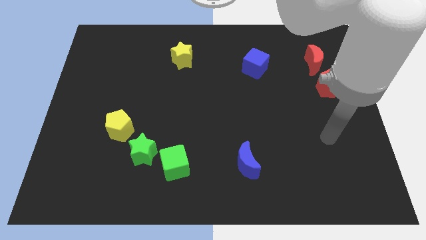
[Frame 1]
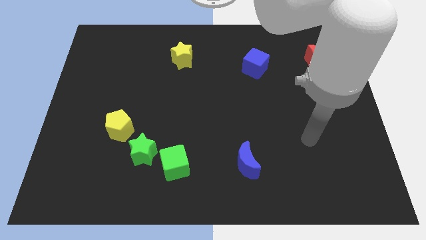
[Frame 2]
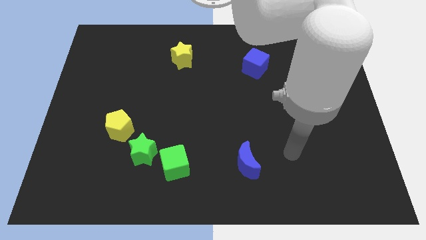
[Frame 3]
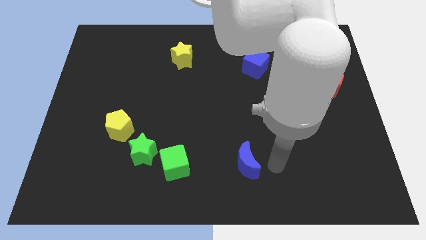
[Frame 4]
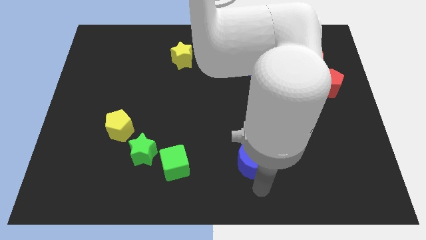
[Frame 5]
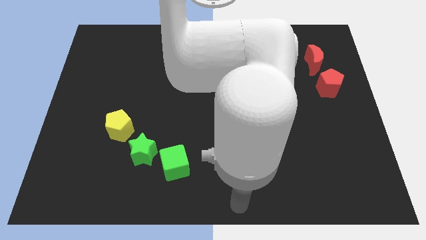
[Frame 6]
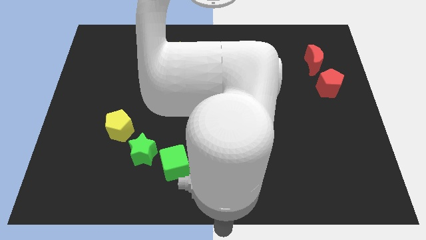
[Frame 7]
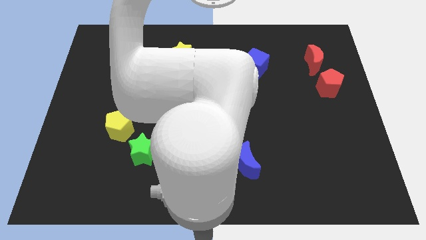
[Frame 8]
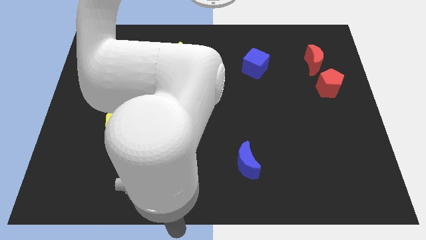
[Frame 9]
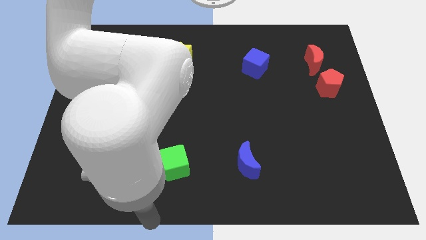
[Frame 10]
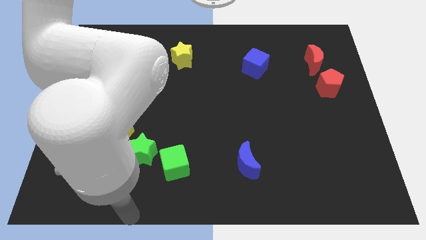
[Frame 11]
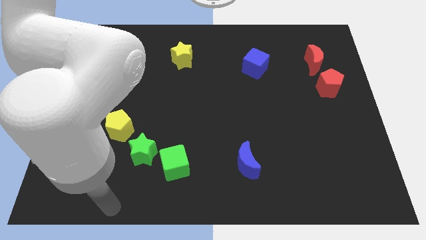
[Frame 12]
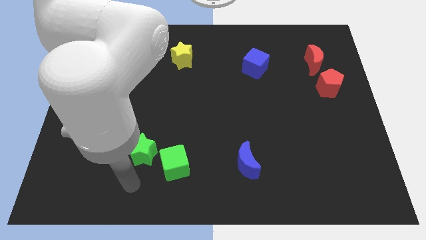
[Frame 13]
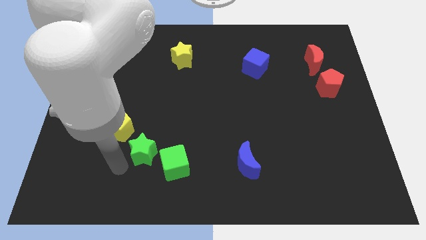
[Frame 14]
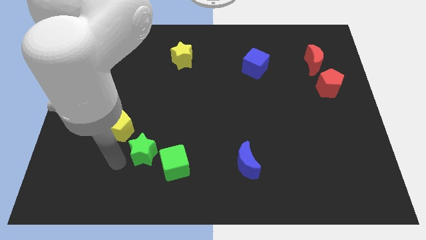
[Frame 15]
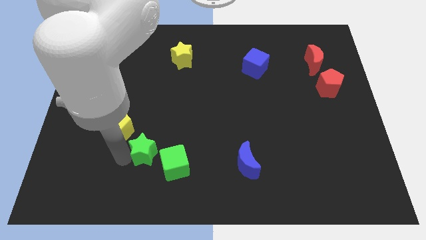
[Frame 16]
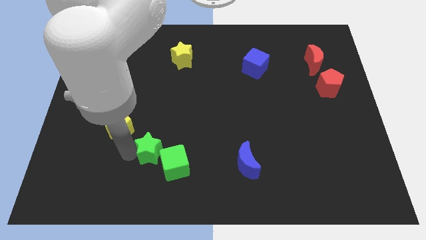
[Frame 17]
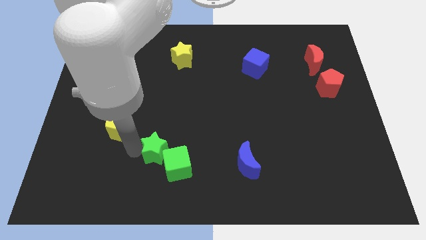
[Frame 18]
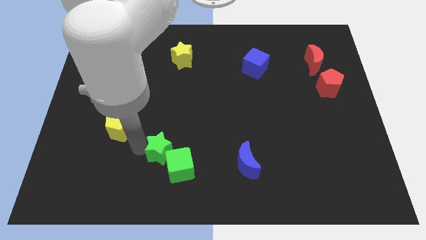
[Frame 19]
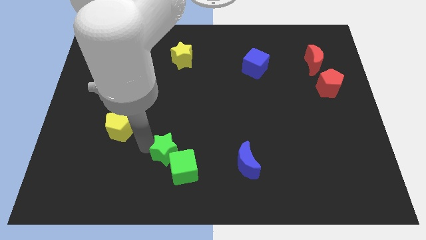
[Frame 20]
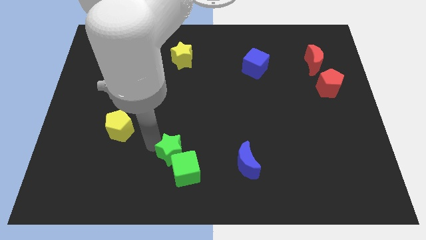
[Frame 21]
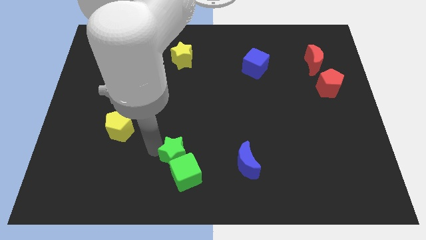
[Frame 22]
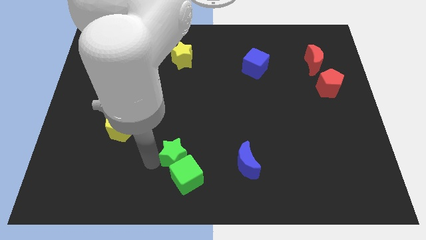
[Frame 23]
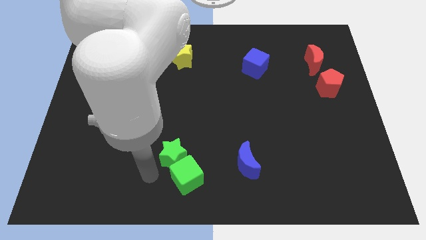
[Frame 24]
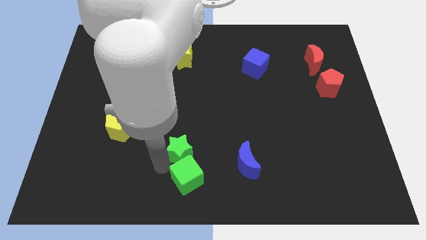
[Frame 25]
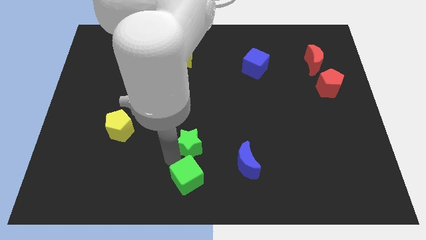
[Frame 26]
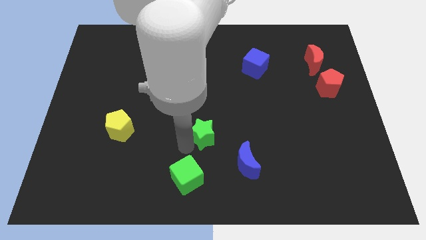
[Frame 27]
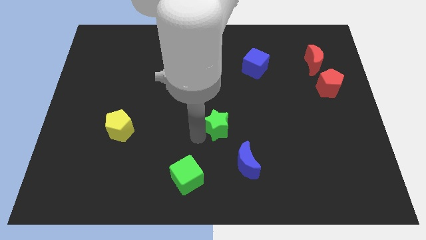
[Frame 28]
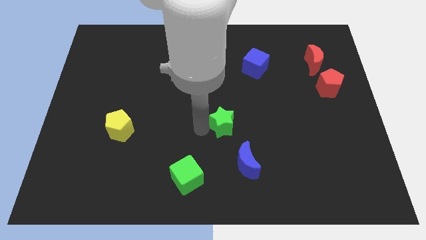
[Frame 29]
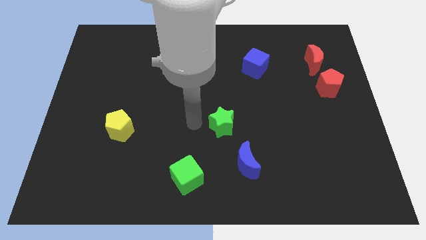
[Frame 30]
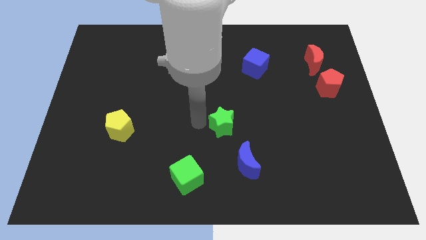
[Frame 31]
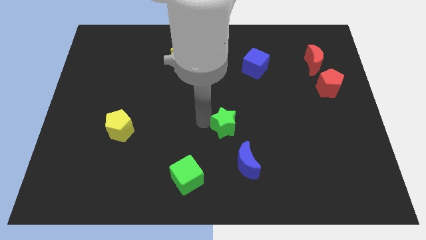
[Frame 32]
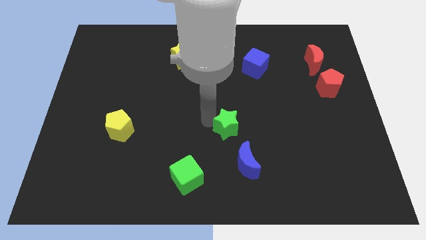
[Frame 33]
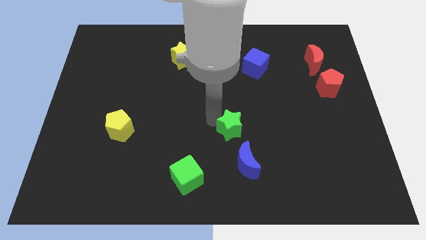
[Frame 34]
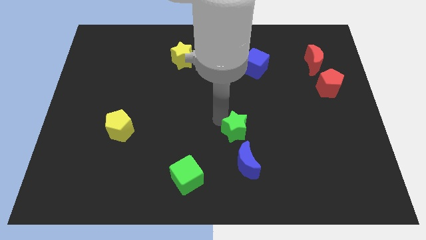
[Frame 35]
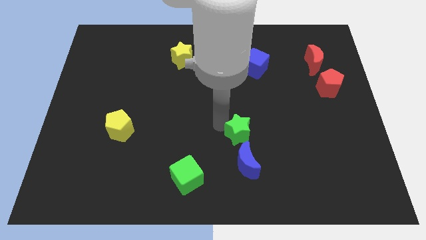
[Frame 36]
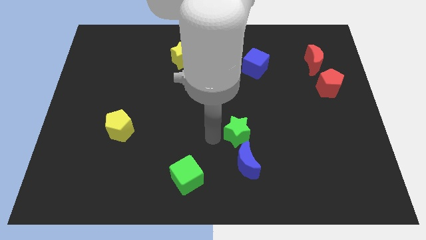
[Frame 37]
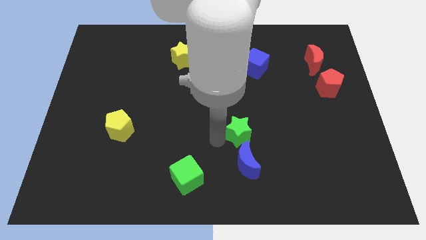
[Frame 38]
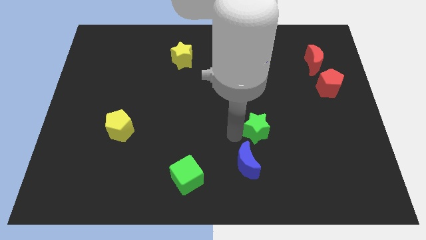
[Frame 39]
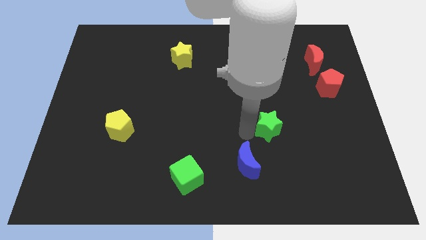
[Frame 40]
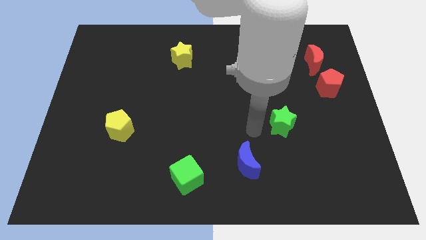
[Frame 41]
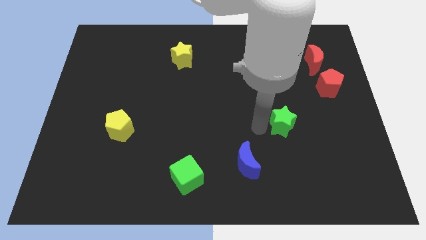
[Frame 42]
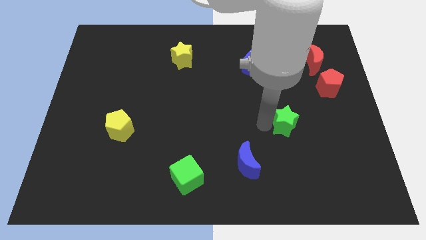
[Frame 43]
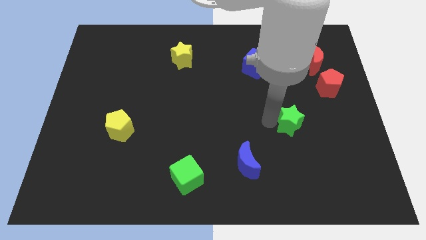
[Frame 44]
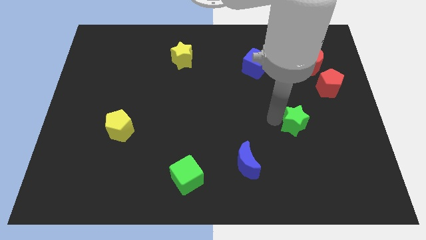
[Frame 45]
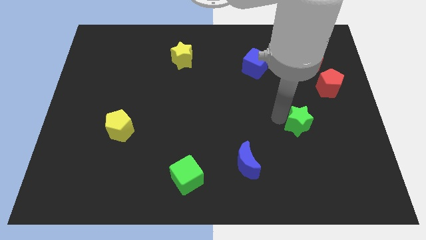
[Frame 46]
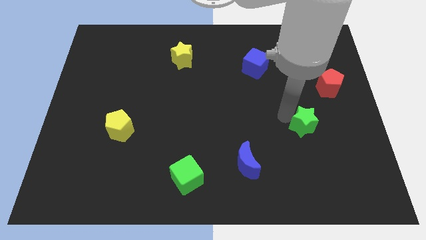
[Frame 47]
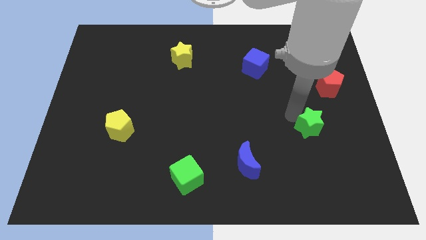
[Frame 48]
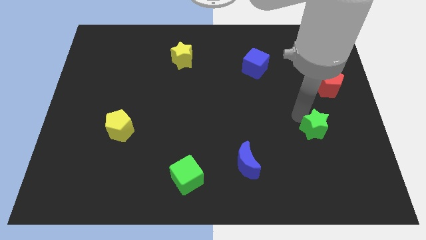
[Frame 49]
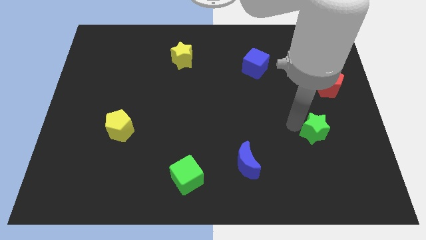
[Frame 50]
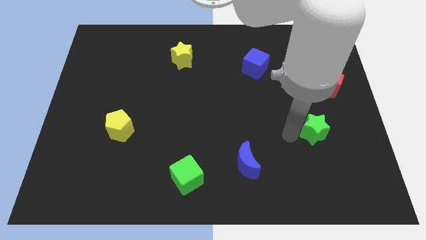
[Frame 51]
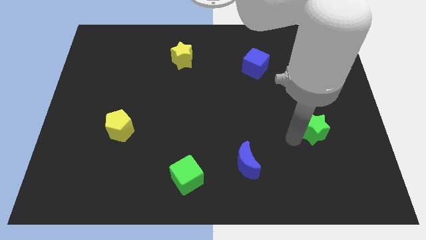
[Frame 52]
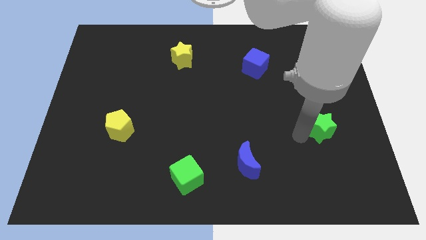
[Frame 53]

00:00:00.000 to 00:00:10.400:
push the green star below the red pentagon

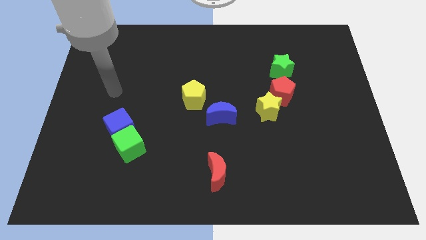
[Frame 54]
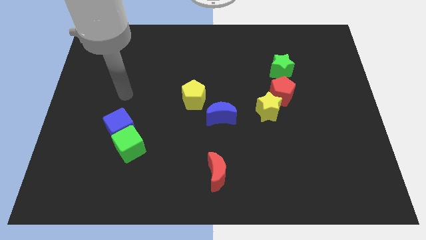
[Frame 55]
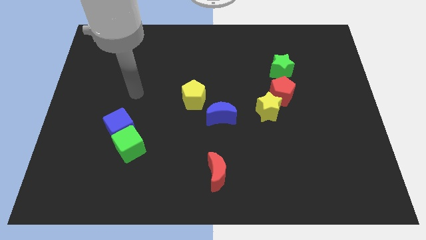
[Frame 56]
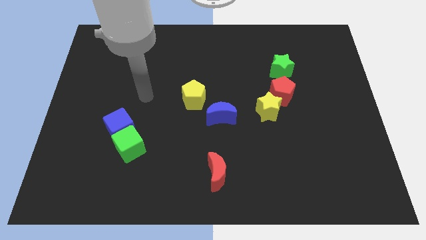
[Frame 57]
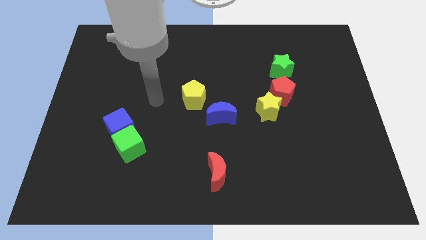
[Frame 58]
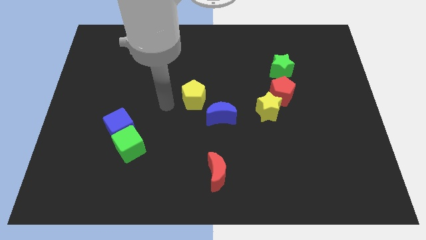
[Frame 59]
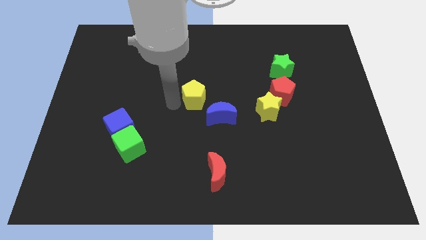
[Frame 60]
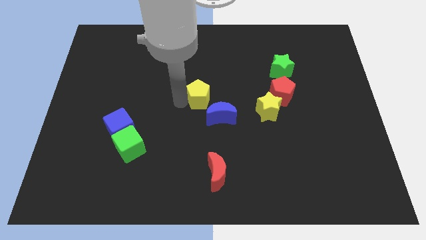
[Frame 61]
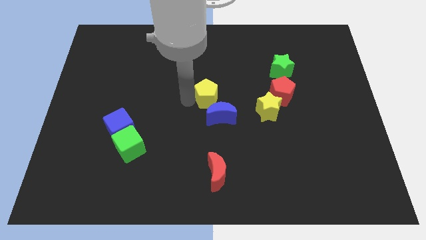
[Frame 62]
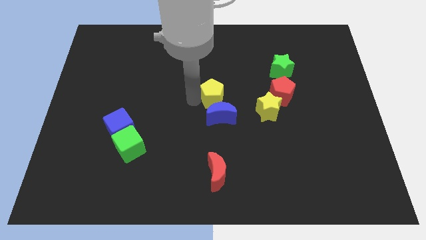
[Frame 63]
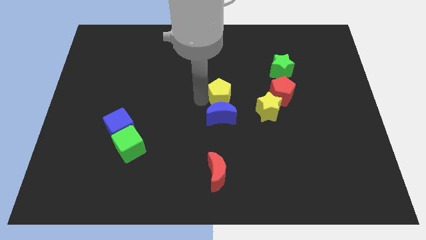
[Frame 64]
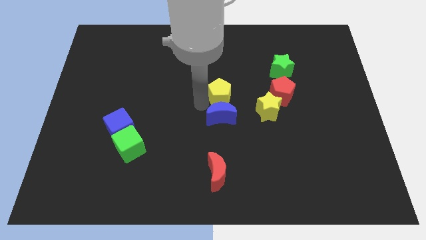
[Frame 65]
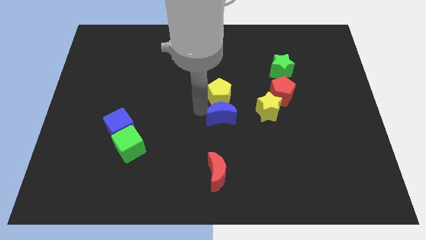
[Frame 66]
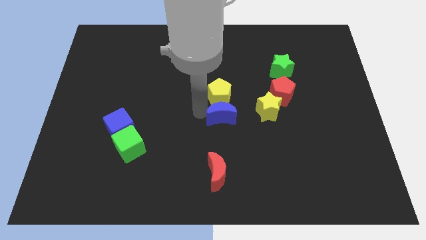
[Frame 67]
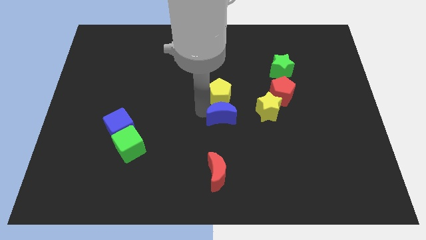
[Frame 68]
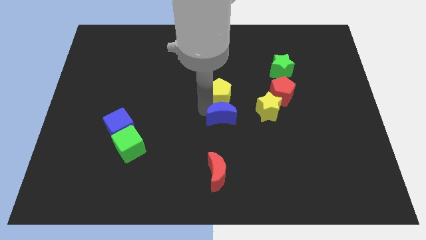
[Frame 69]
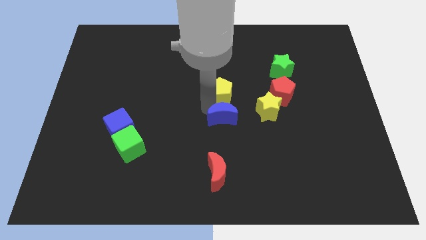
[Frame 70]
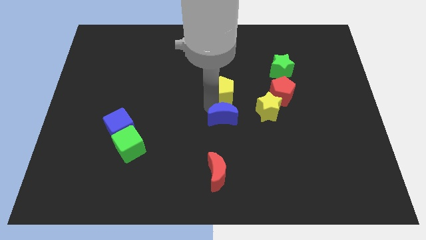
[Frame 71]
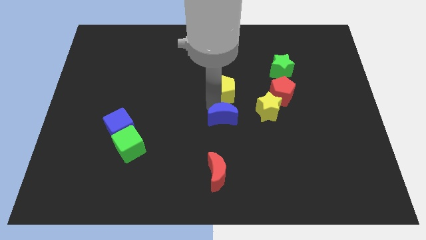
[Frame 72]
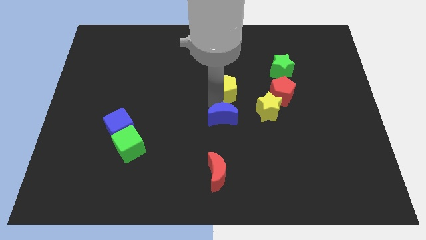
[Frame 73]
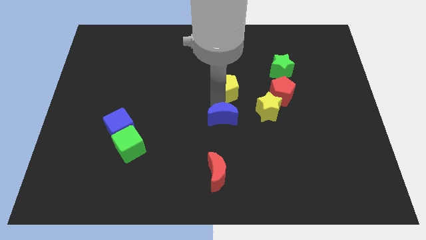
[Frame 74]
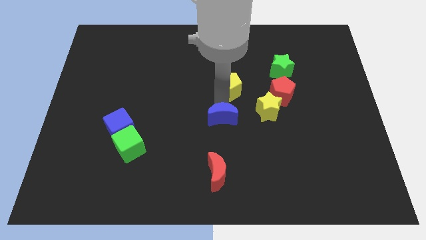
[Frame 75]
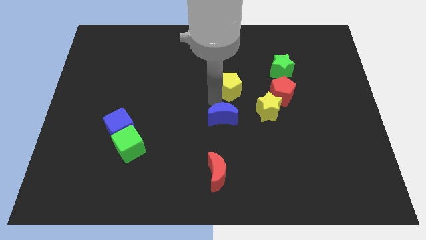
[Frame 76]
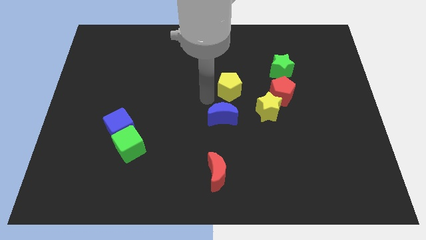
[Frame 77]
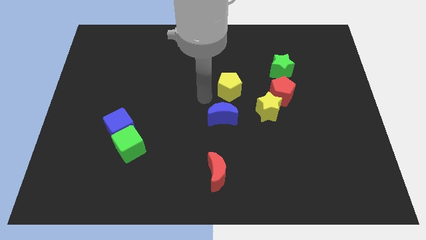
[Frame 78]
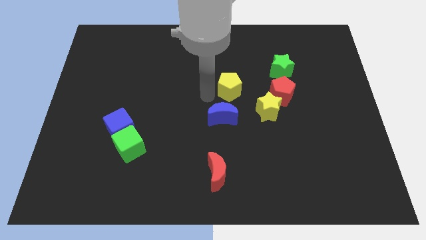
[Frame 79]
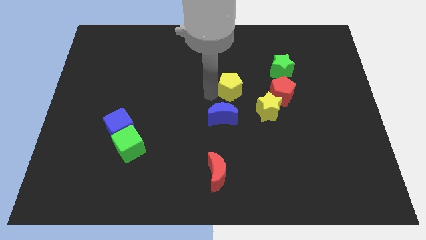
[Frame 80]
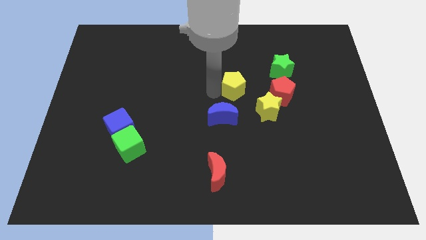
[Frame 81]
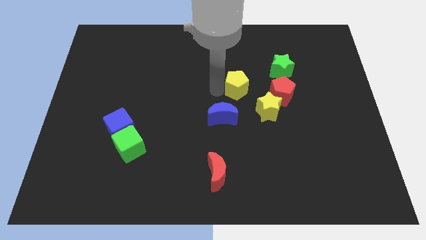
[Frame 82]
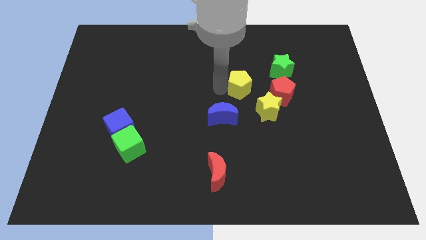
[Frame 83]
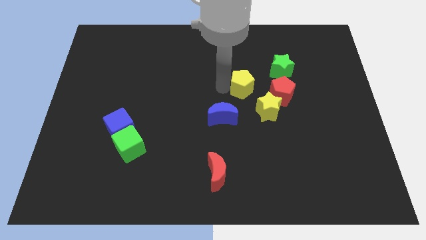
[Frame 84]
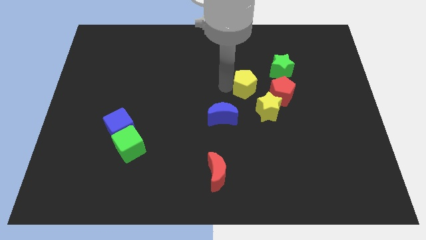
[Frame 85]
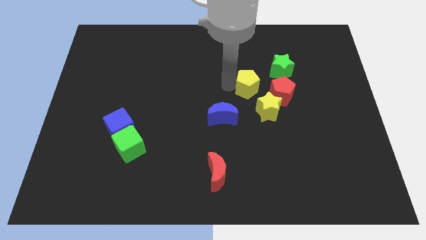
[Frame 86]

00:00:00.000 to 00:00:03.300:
move the yellow pentagon to the top side of the yellow star
